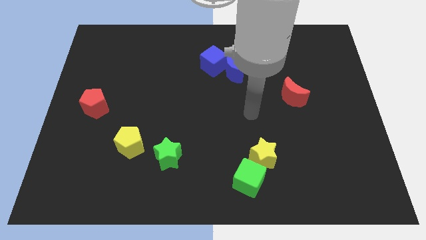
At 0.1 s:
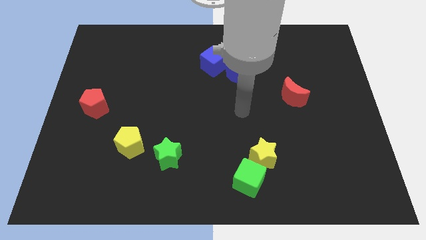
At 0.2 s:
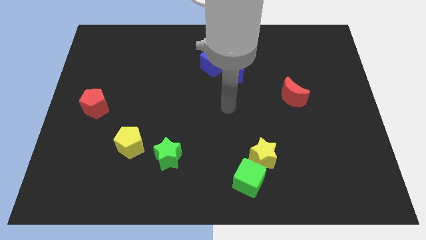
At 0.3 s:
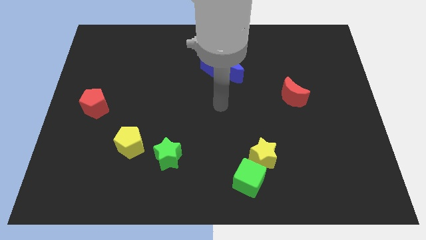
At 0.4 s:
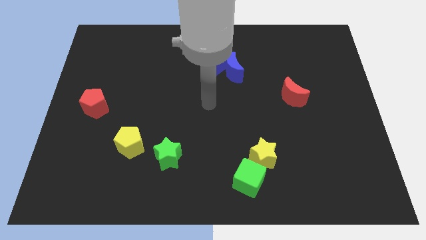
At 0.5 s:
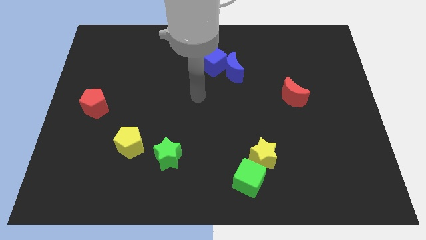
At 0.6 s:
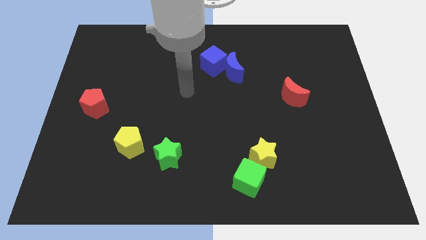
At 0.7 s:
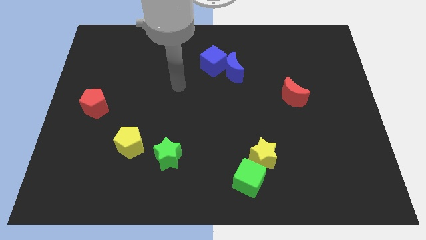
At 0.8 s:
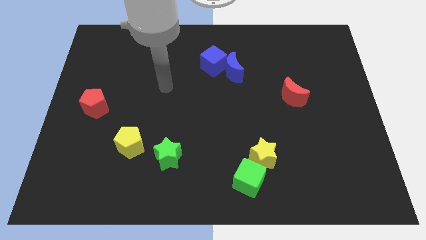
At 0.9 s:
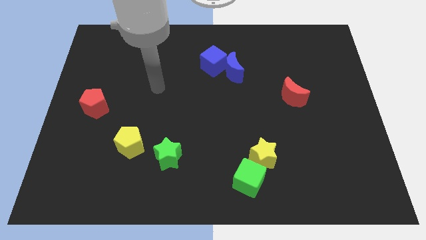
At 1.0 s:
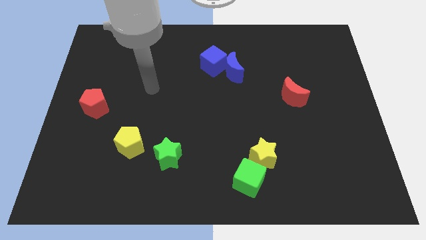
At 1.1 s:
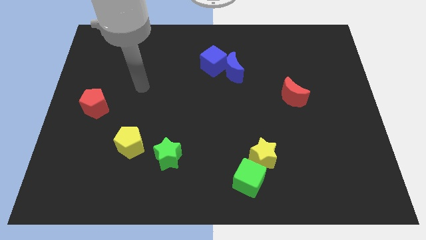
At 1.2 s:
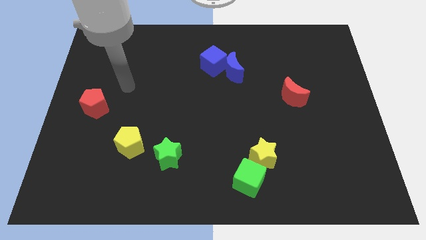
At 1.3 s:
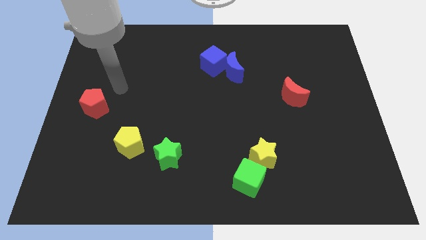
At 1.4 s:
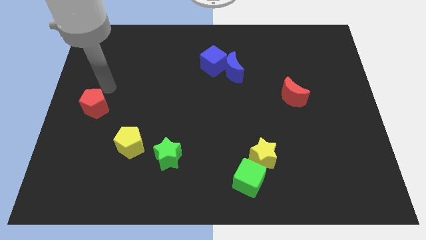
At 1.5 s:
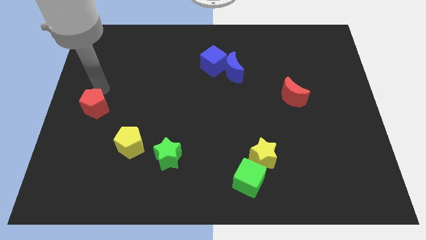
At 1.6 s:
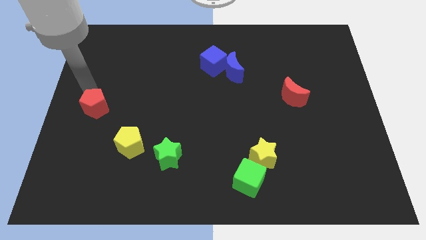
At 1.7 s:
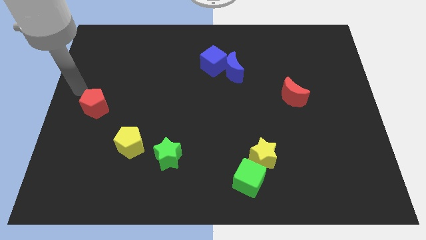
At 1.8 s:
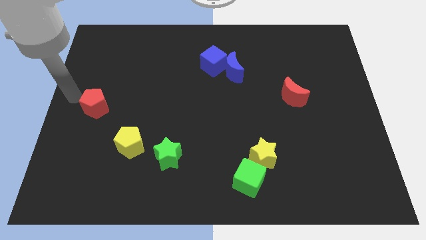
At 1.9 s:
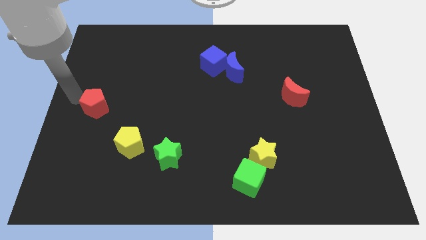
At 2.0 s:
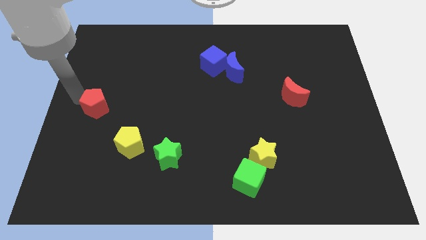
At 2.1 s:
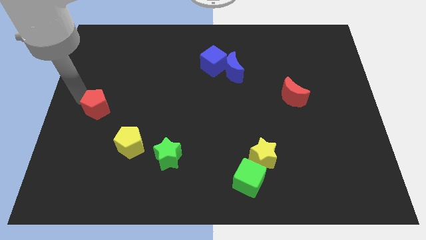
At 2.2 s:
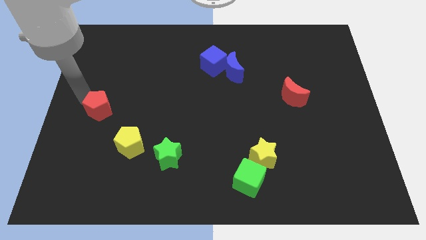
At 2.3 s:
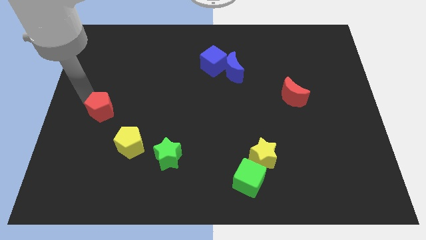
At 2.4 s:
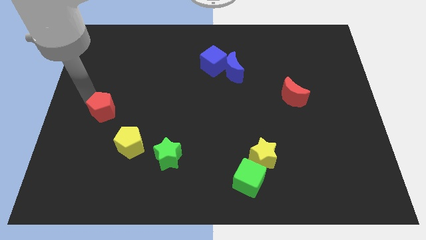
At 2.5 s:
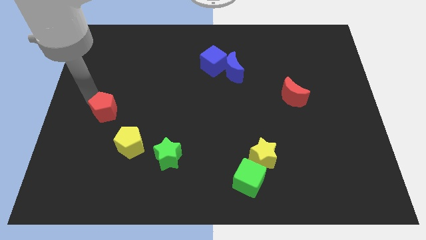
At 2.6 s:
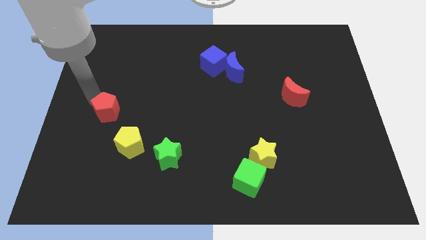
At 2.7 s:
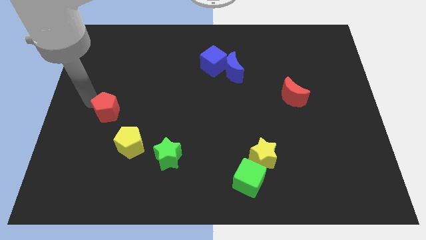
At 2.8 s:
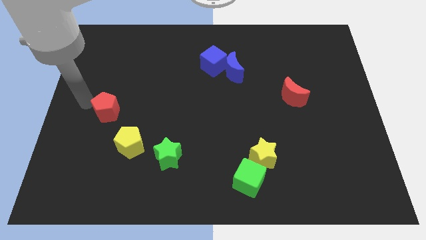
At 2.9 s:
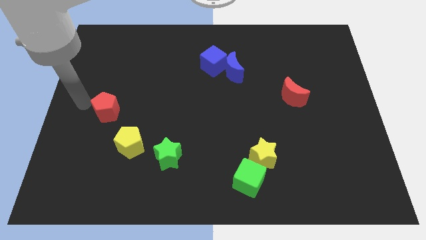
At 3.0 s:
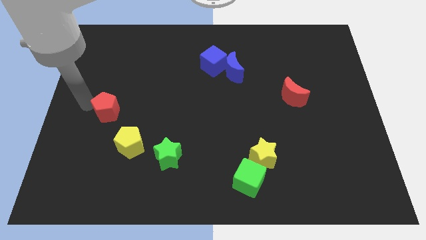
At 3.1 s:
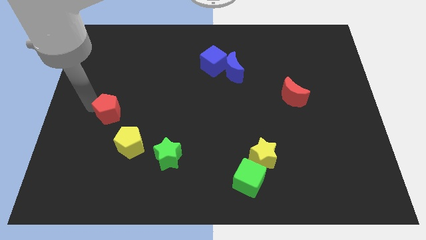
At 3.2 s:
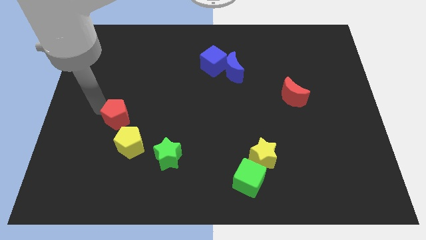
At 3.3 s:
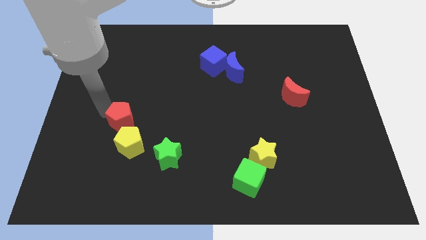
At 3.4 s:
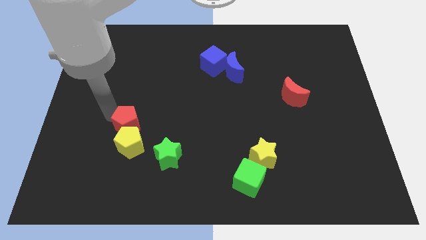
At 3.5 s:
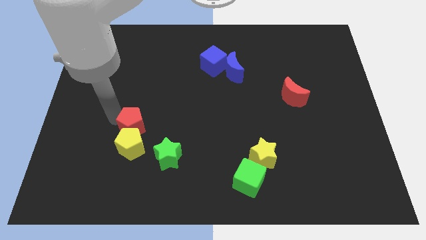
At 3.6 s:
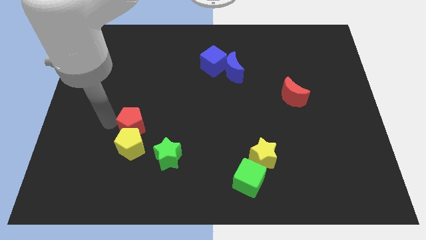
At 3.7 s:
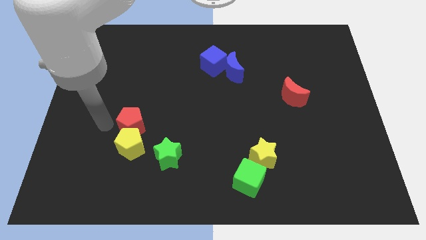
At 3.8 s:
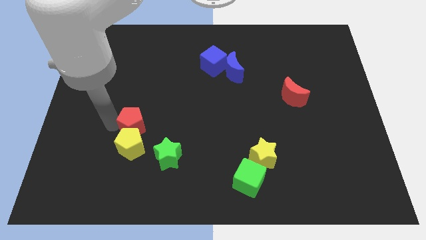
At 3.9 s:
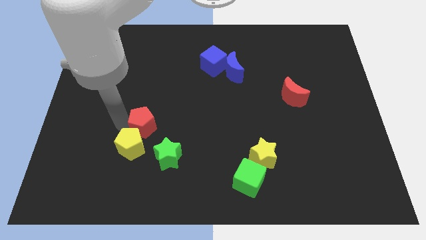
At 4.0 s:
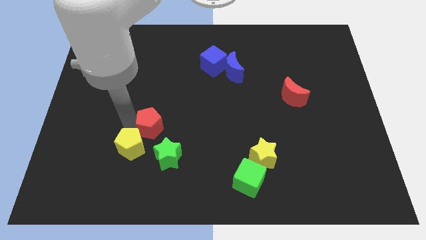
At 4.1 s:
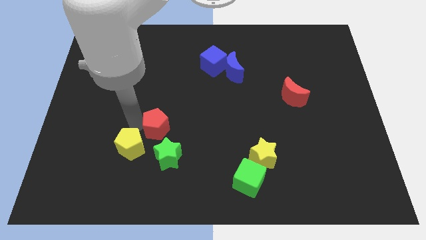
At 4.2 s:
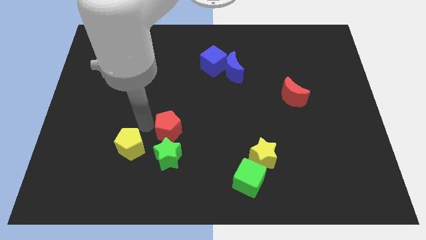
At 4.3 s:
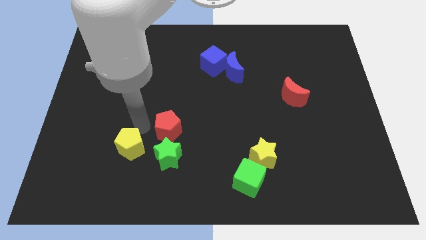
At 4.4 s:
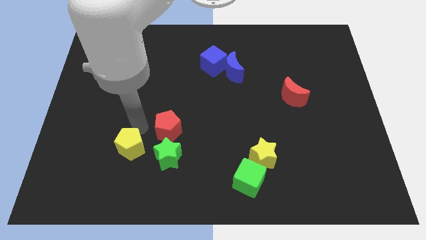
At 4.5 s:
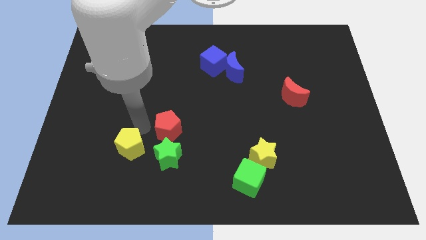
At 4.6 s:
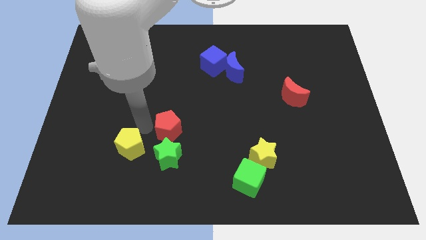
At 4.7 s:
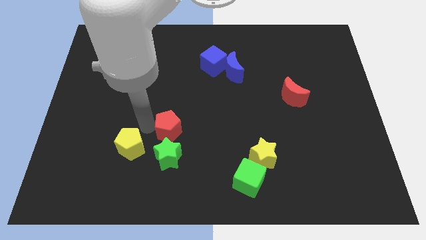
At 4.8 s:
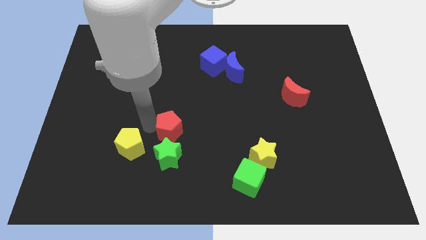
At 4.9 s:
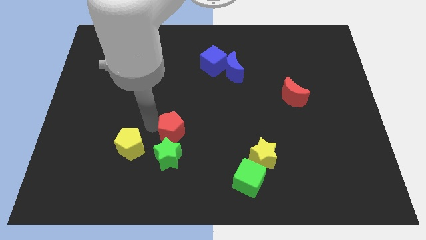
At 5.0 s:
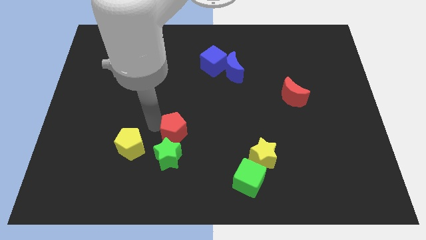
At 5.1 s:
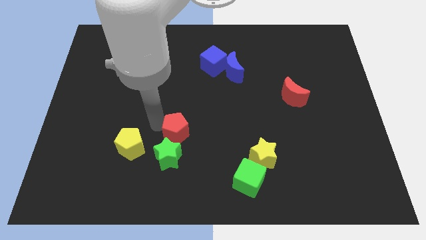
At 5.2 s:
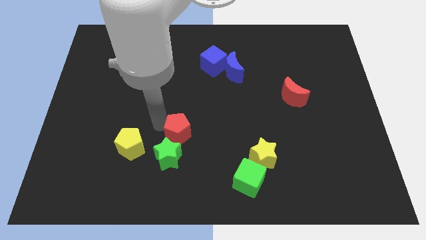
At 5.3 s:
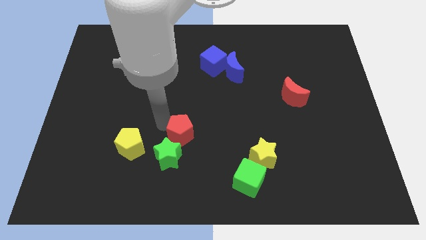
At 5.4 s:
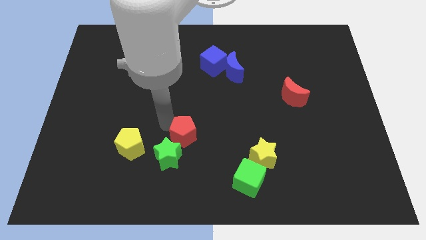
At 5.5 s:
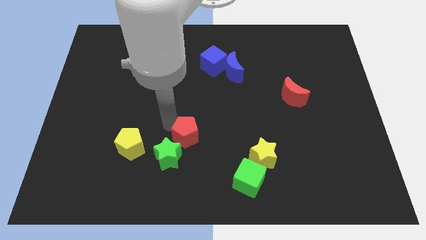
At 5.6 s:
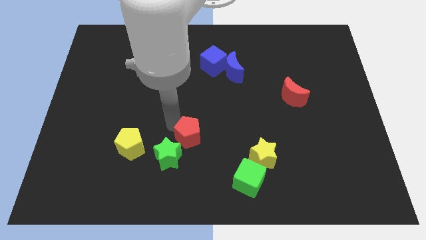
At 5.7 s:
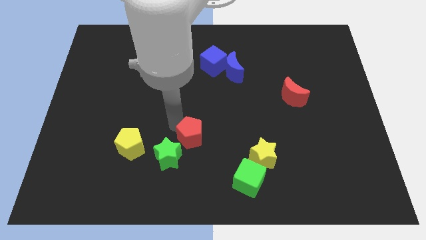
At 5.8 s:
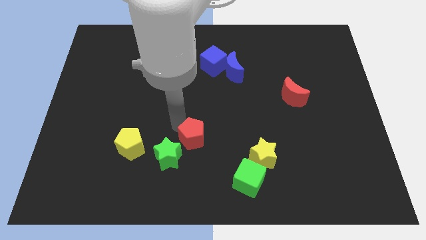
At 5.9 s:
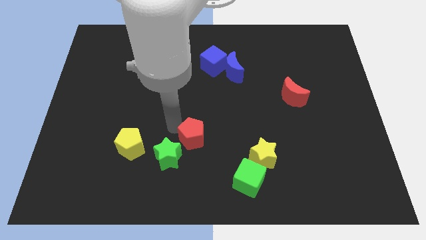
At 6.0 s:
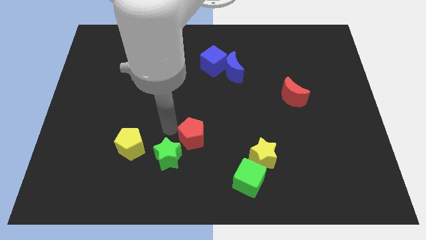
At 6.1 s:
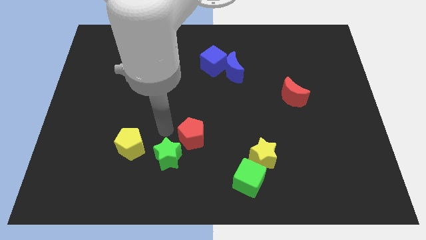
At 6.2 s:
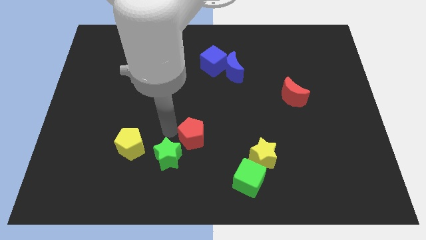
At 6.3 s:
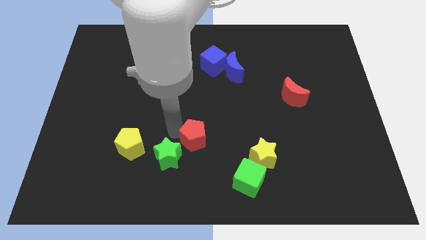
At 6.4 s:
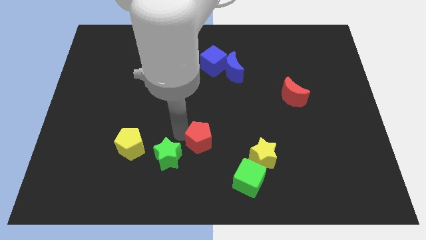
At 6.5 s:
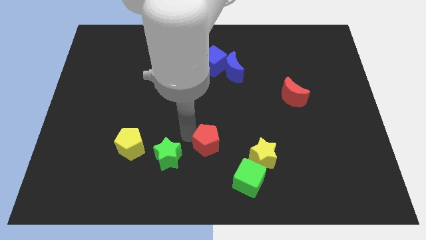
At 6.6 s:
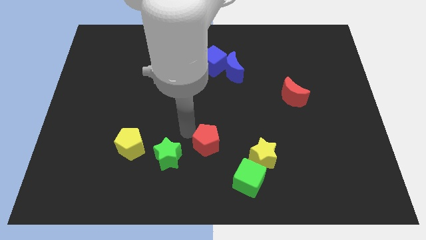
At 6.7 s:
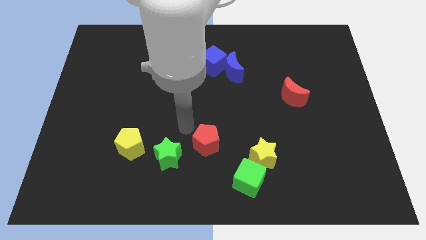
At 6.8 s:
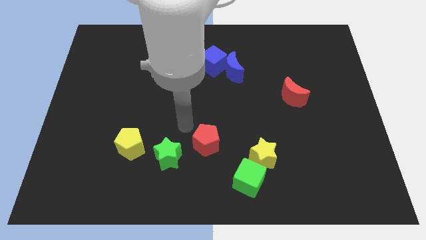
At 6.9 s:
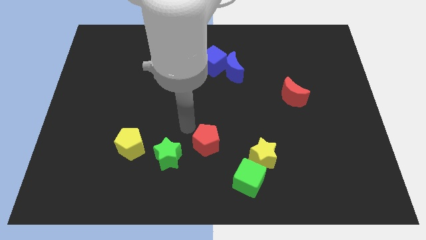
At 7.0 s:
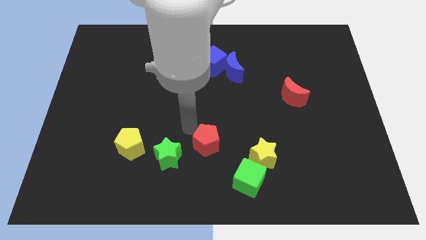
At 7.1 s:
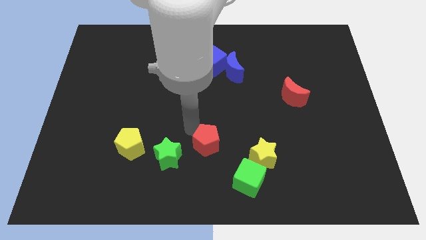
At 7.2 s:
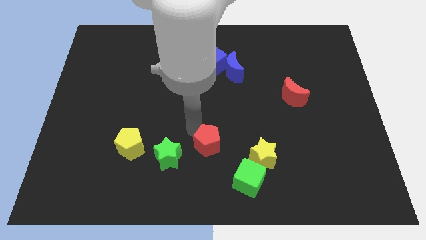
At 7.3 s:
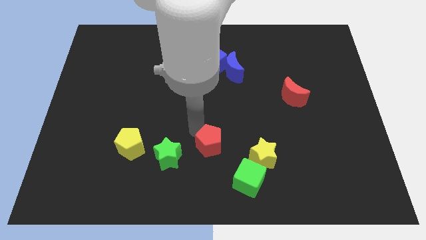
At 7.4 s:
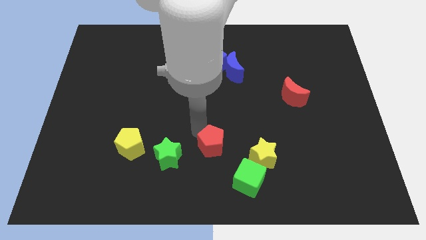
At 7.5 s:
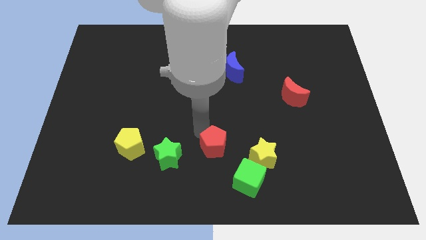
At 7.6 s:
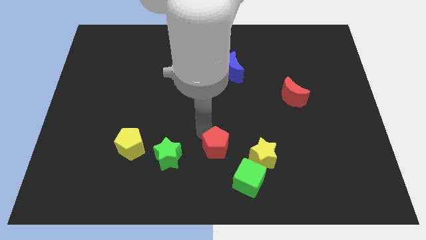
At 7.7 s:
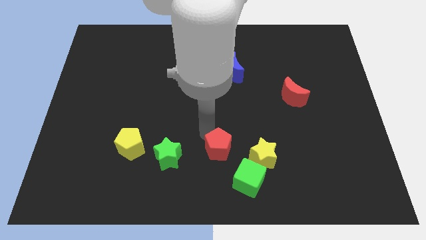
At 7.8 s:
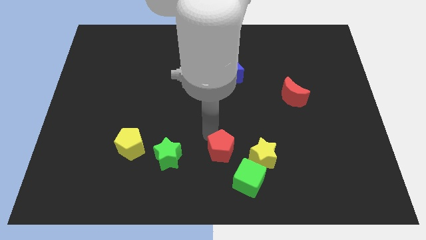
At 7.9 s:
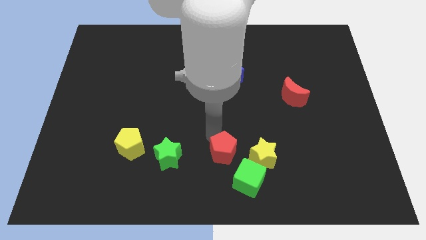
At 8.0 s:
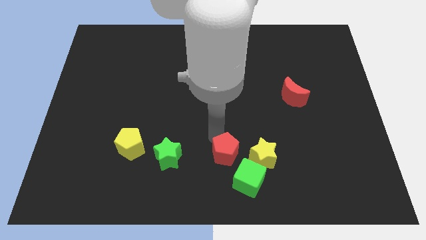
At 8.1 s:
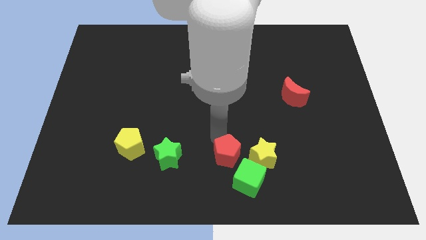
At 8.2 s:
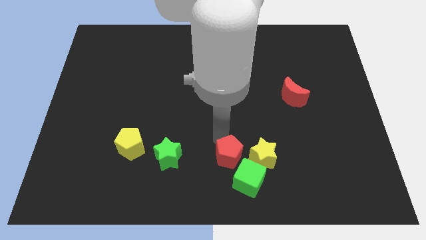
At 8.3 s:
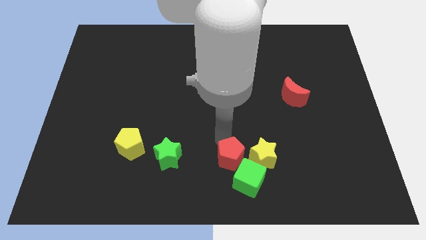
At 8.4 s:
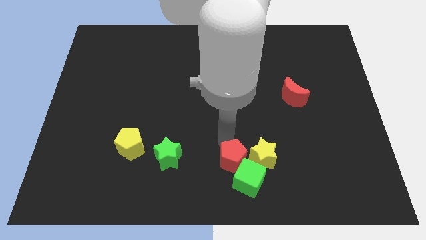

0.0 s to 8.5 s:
move the red pentagon towards the green cube
